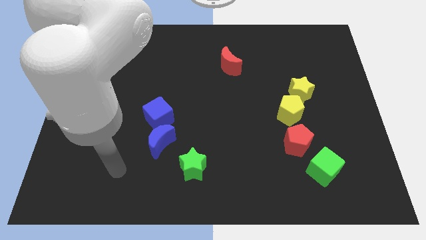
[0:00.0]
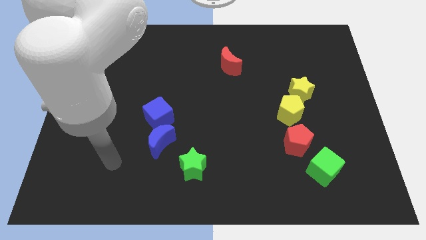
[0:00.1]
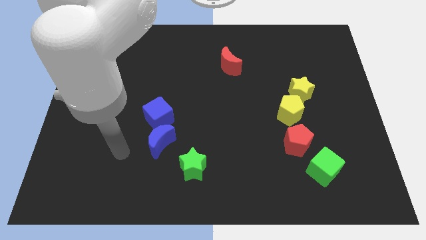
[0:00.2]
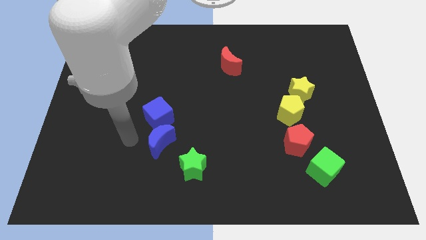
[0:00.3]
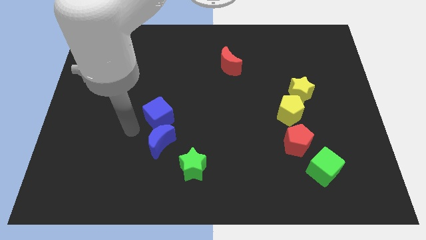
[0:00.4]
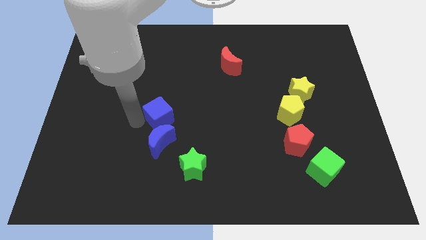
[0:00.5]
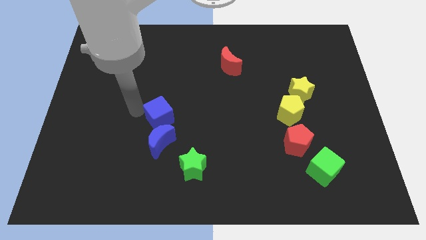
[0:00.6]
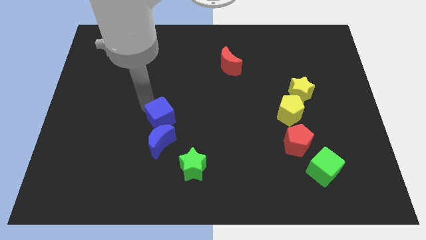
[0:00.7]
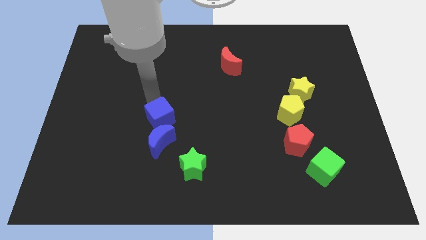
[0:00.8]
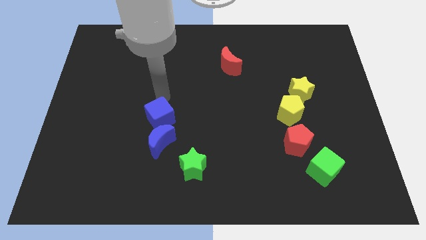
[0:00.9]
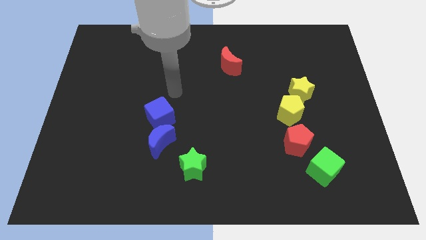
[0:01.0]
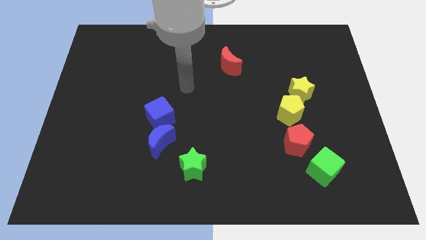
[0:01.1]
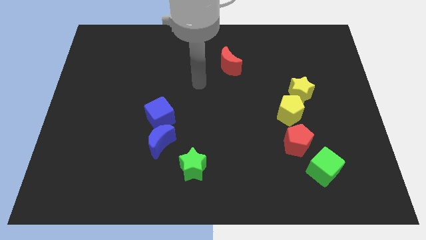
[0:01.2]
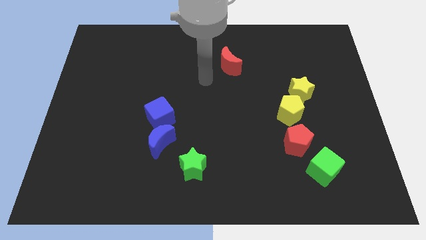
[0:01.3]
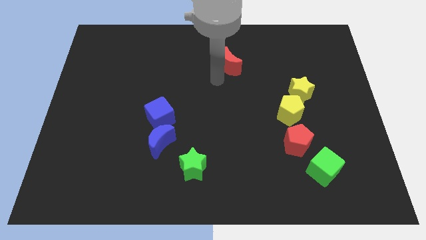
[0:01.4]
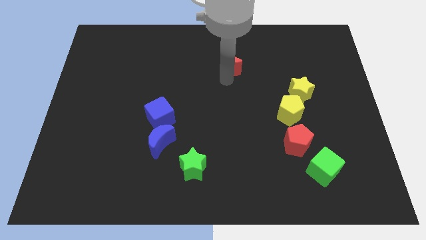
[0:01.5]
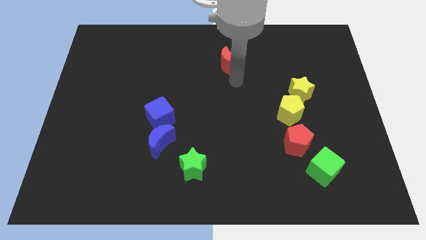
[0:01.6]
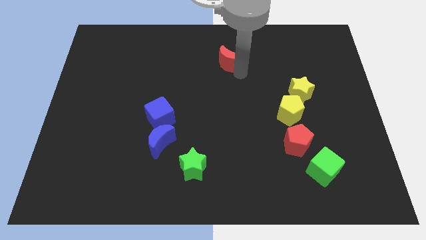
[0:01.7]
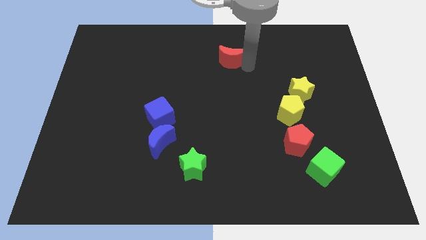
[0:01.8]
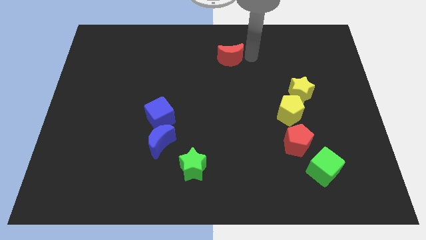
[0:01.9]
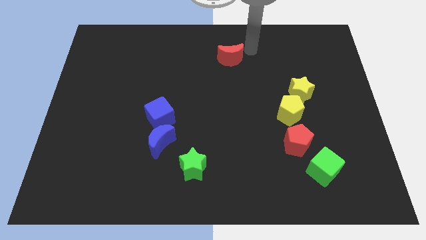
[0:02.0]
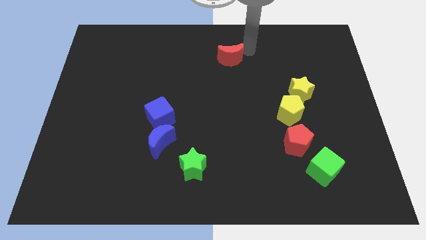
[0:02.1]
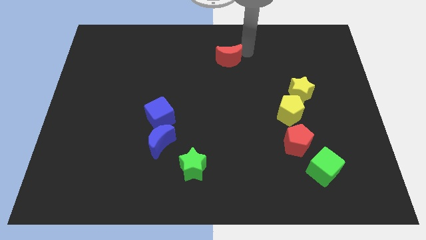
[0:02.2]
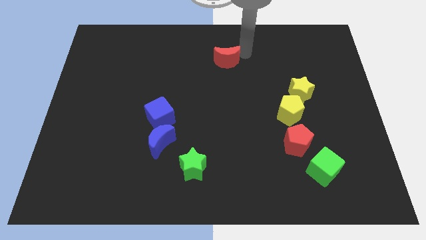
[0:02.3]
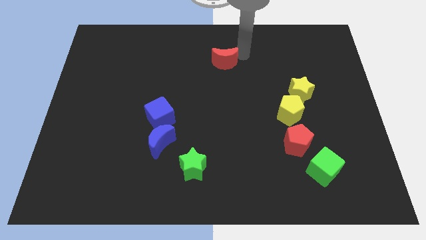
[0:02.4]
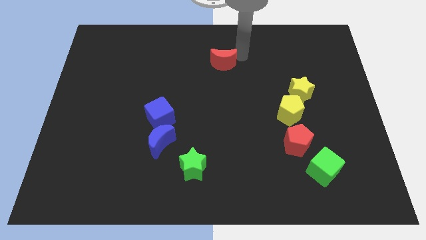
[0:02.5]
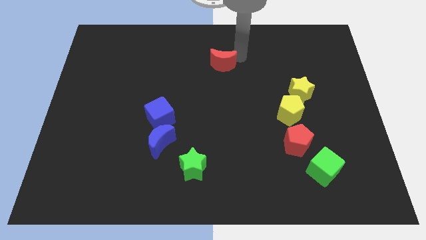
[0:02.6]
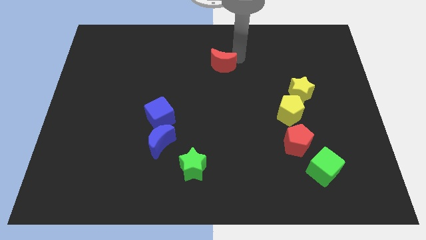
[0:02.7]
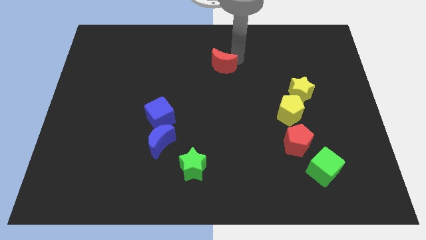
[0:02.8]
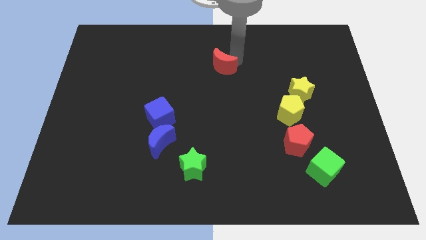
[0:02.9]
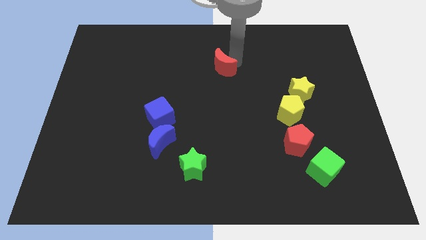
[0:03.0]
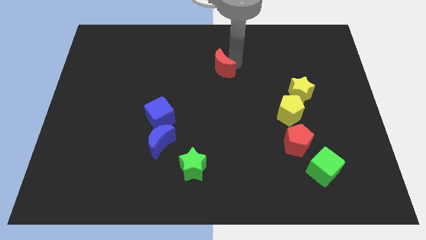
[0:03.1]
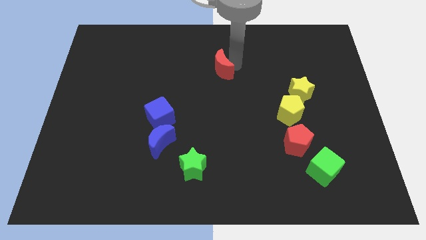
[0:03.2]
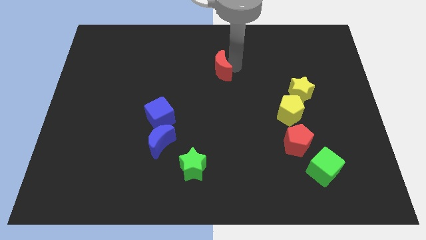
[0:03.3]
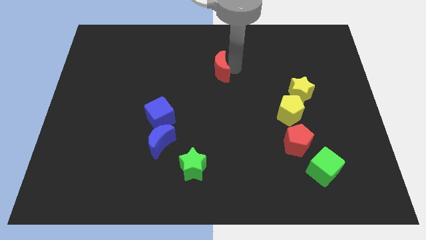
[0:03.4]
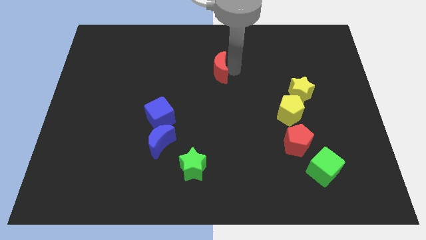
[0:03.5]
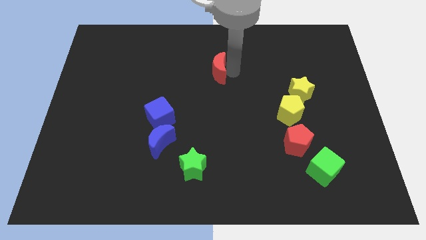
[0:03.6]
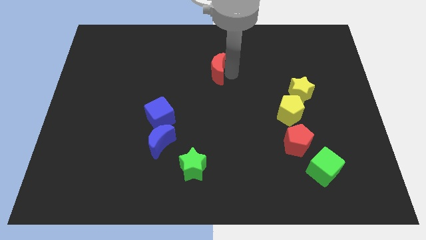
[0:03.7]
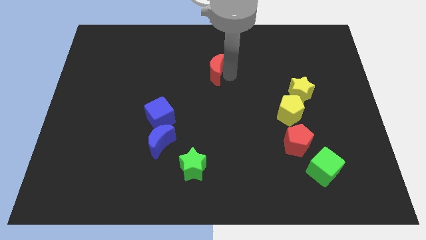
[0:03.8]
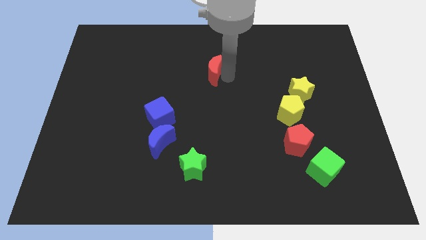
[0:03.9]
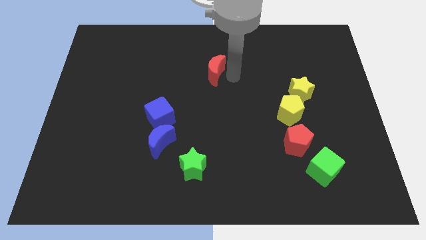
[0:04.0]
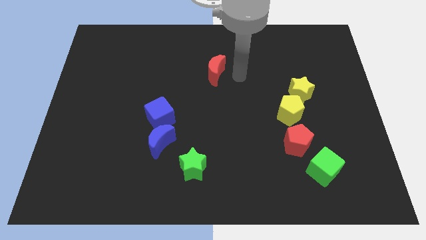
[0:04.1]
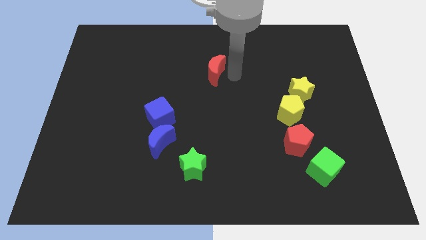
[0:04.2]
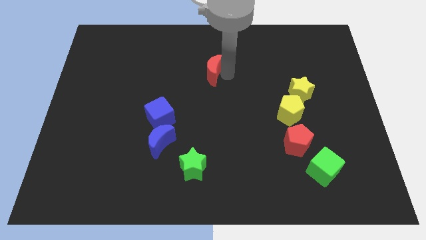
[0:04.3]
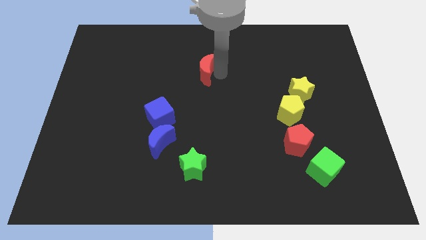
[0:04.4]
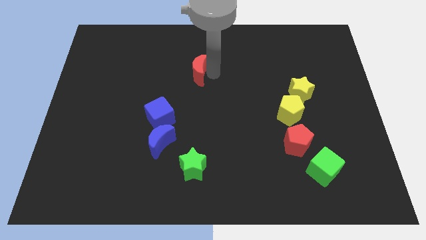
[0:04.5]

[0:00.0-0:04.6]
slightly slide the red moon left

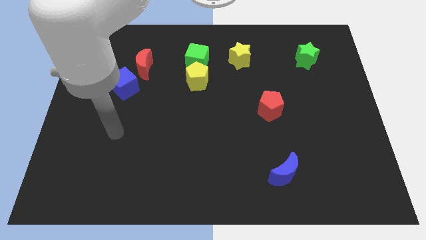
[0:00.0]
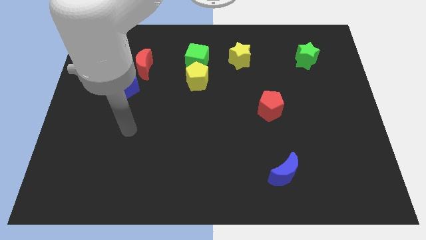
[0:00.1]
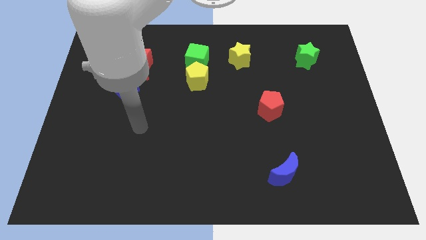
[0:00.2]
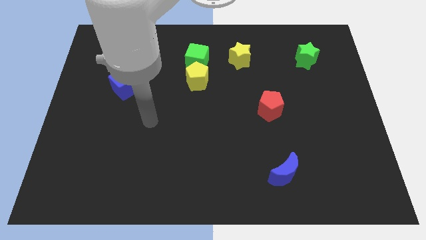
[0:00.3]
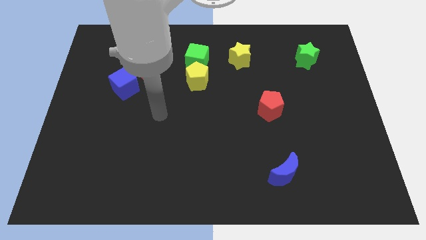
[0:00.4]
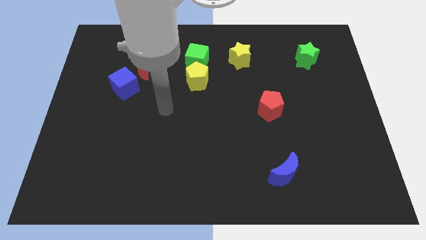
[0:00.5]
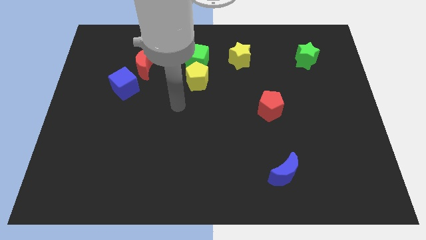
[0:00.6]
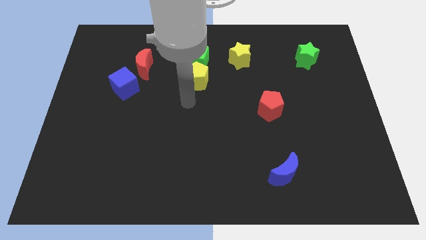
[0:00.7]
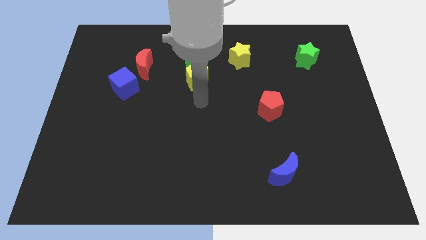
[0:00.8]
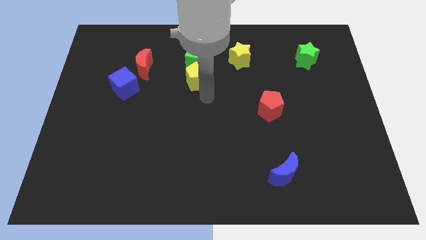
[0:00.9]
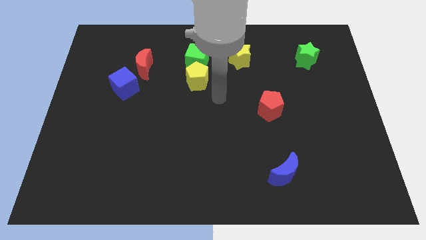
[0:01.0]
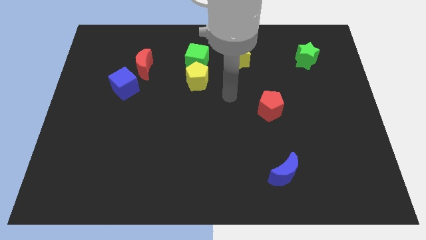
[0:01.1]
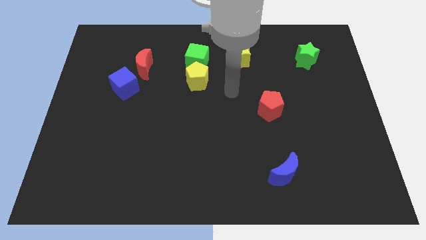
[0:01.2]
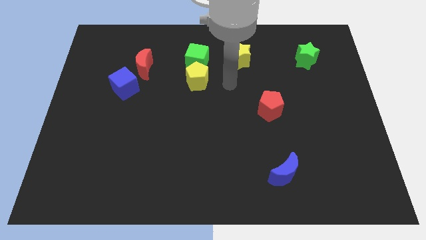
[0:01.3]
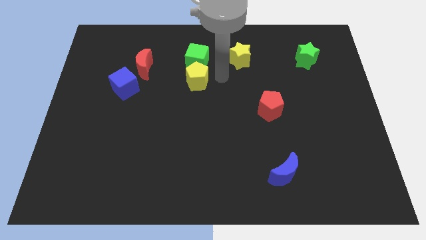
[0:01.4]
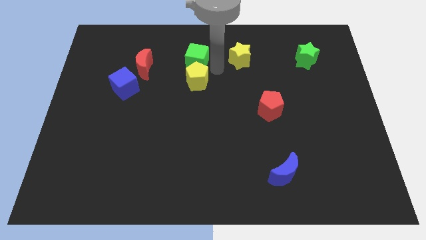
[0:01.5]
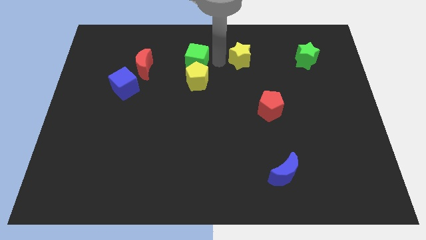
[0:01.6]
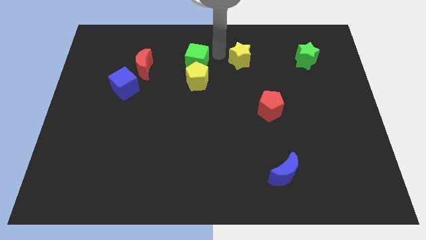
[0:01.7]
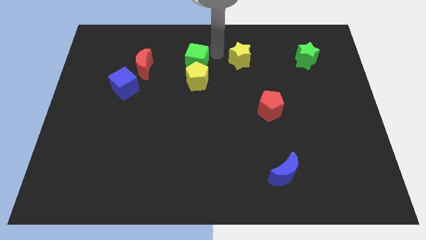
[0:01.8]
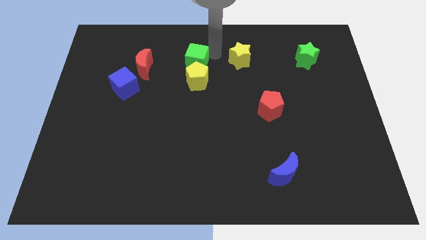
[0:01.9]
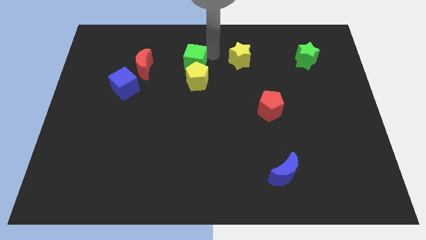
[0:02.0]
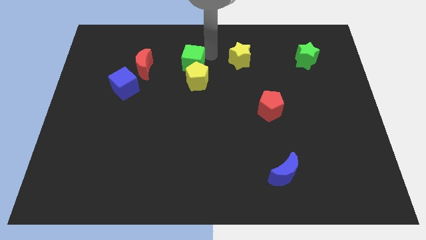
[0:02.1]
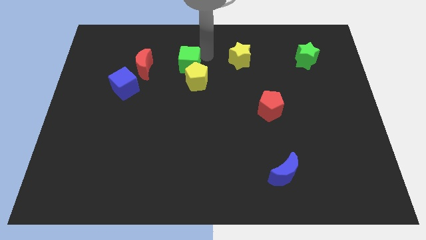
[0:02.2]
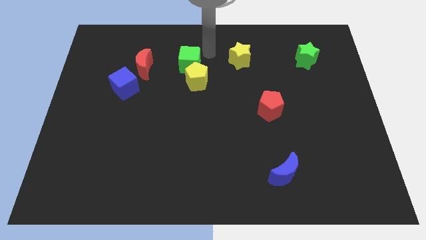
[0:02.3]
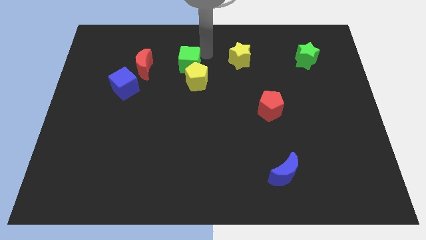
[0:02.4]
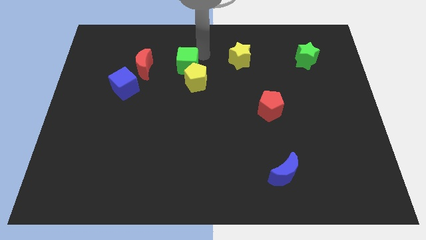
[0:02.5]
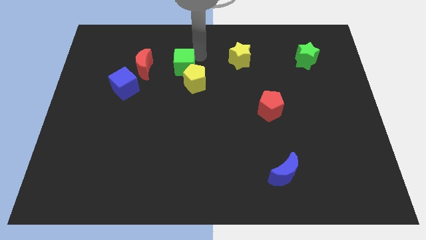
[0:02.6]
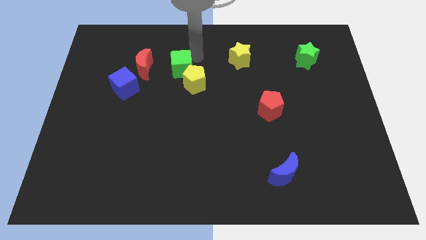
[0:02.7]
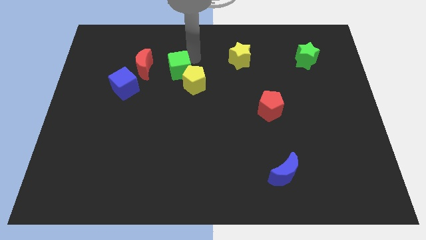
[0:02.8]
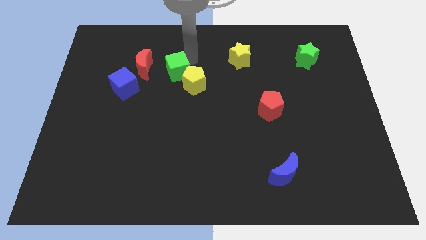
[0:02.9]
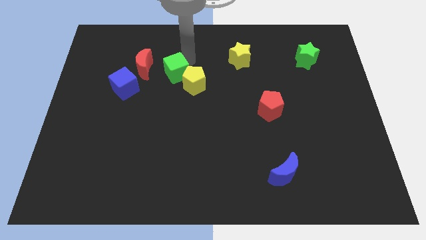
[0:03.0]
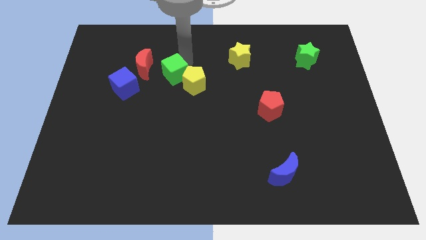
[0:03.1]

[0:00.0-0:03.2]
slightly move the green cube down and then to the left

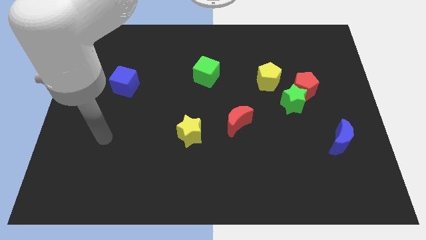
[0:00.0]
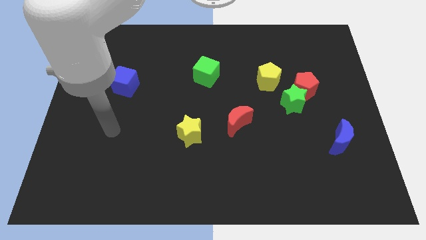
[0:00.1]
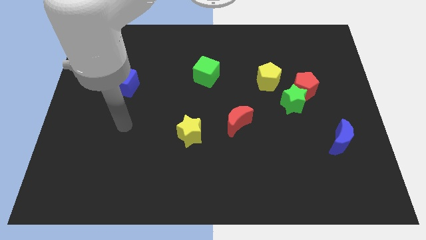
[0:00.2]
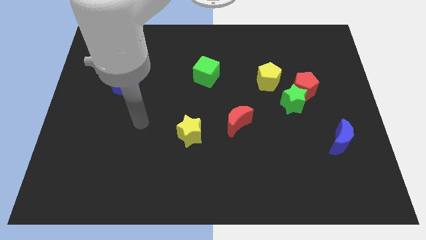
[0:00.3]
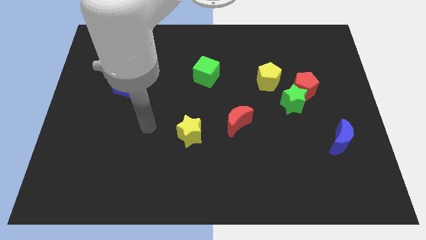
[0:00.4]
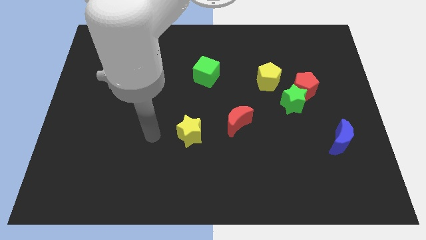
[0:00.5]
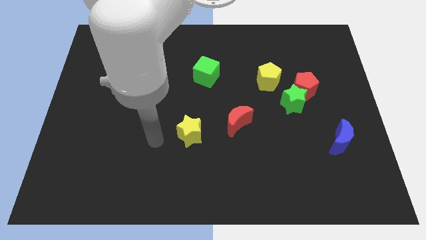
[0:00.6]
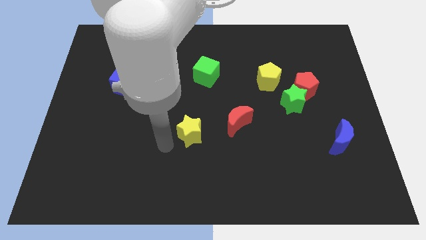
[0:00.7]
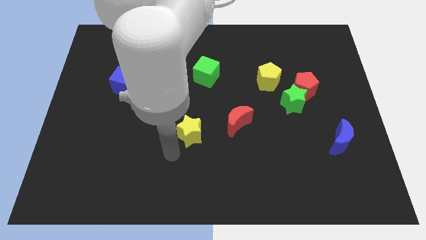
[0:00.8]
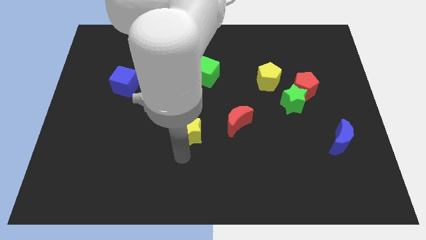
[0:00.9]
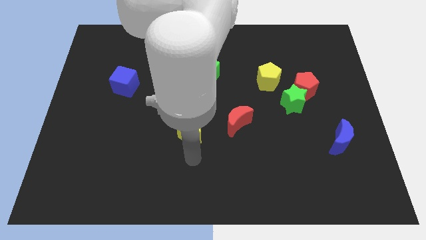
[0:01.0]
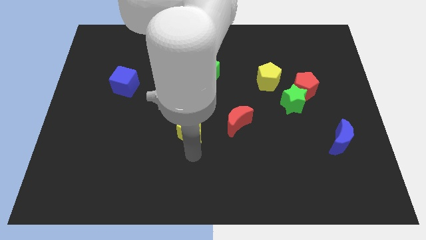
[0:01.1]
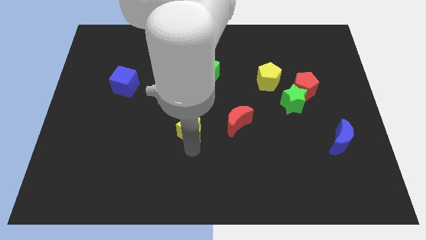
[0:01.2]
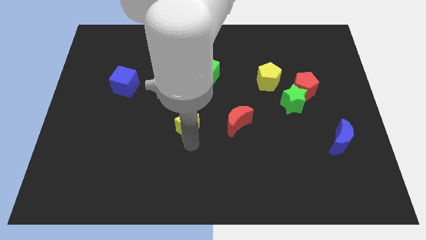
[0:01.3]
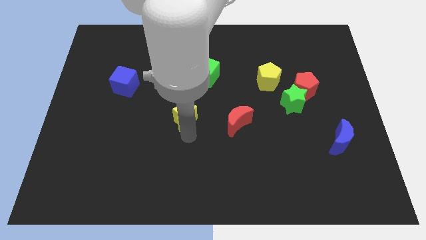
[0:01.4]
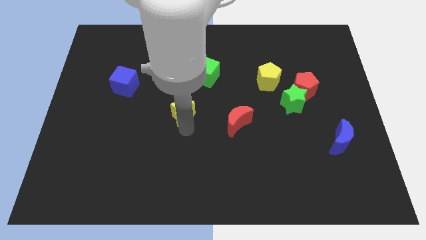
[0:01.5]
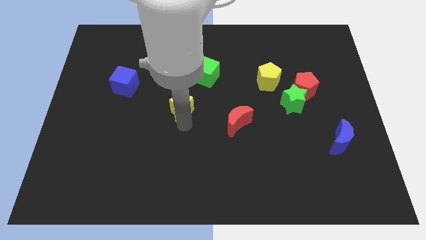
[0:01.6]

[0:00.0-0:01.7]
push the yellow star up a little bit
